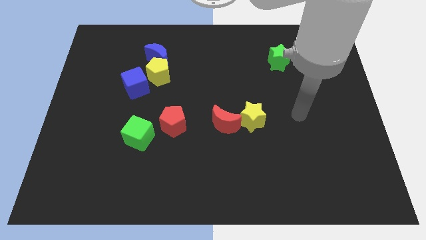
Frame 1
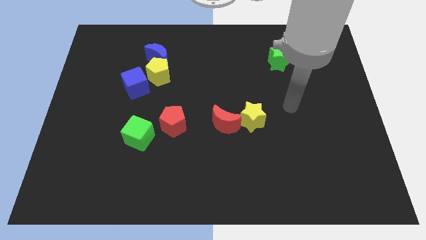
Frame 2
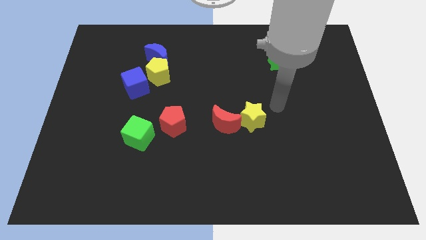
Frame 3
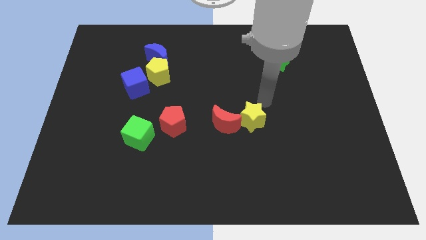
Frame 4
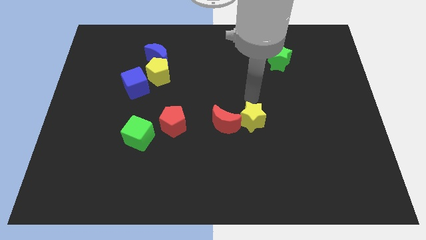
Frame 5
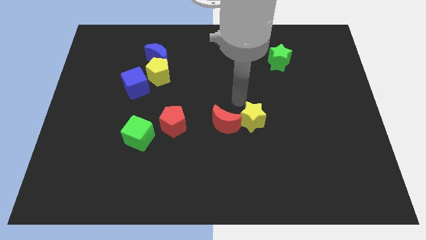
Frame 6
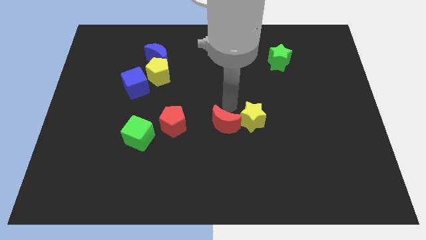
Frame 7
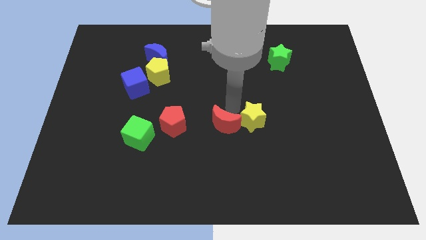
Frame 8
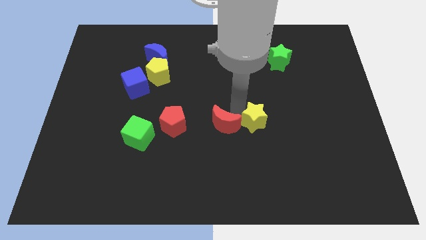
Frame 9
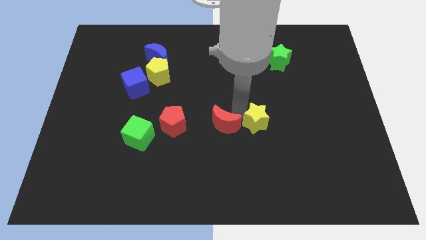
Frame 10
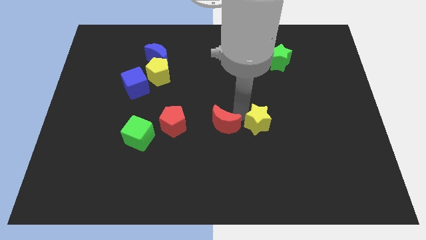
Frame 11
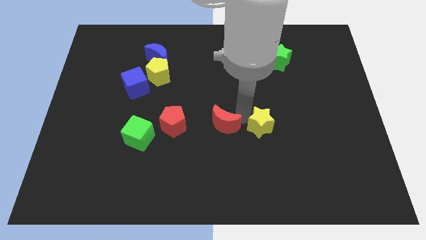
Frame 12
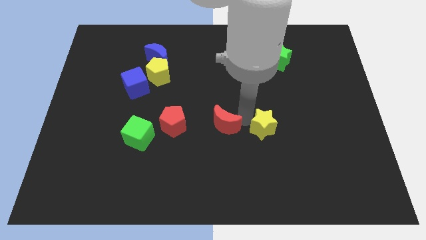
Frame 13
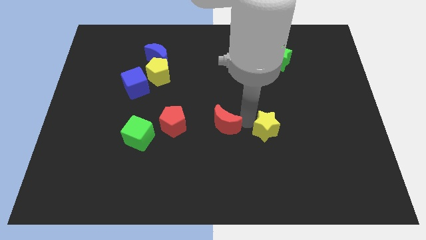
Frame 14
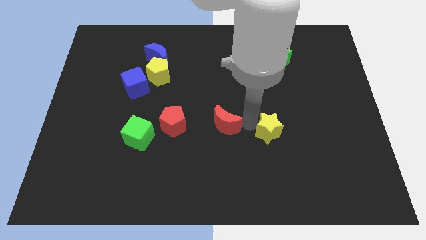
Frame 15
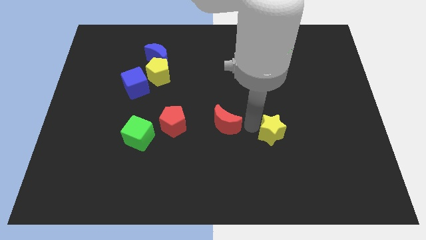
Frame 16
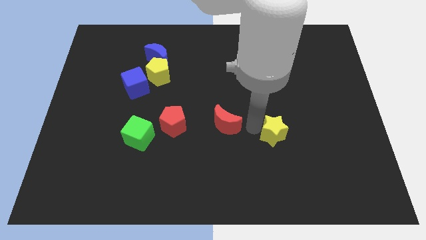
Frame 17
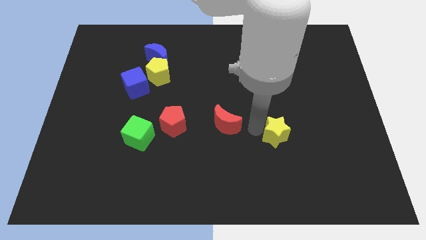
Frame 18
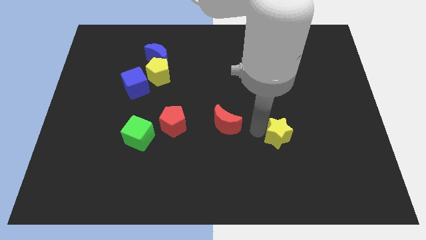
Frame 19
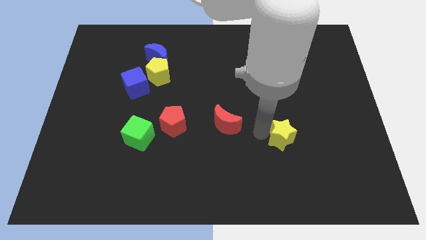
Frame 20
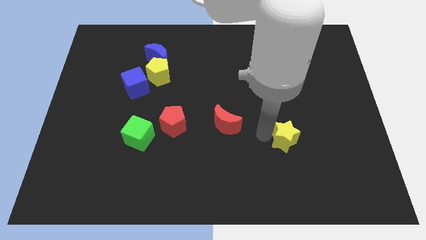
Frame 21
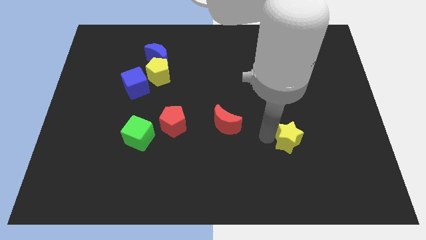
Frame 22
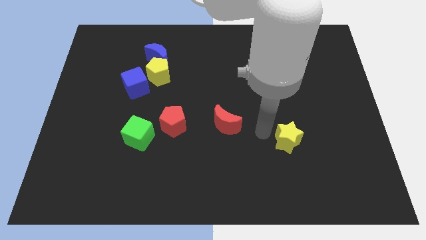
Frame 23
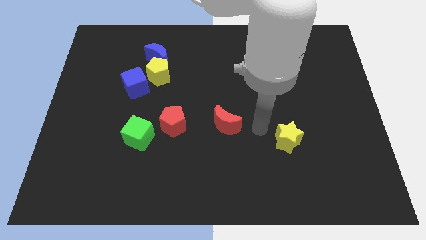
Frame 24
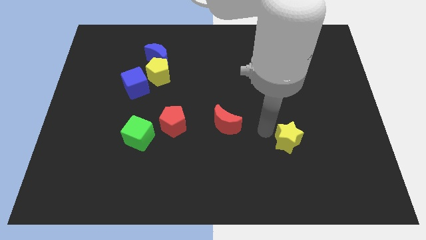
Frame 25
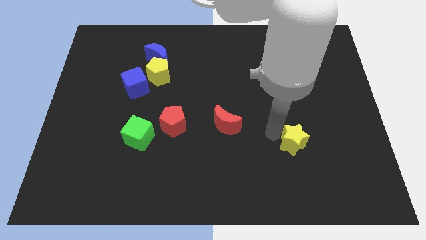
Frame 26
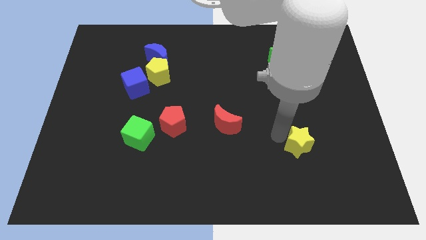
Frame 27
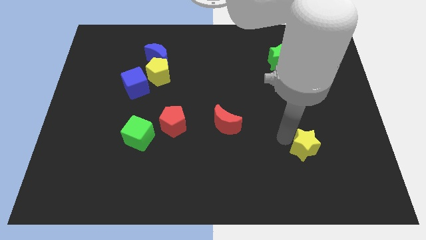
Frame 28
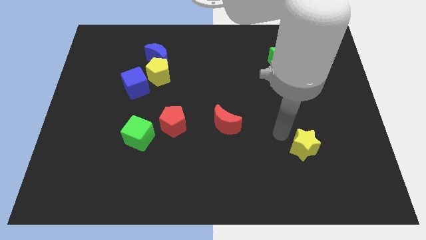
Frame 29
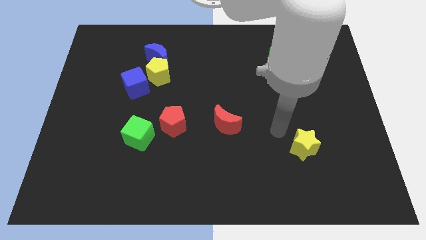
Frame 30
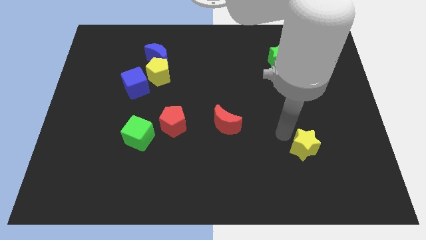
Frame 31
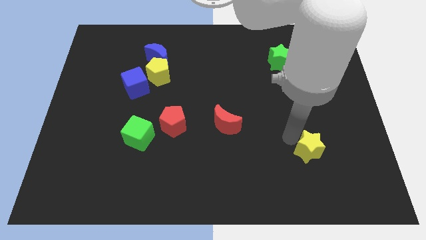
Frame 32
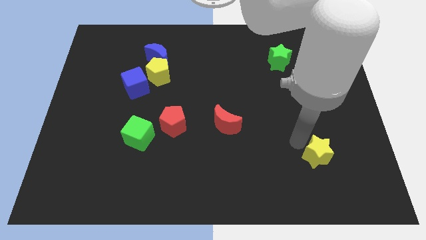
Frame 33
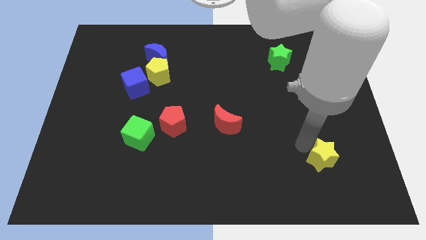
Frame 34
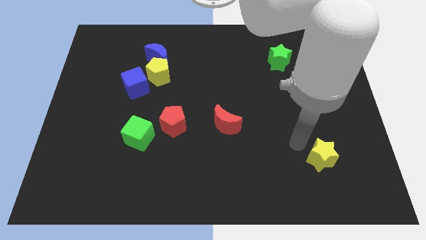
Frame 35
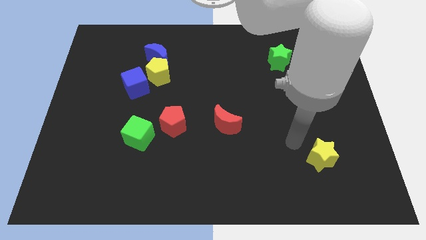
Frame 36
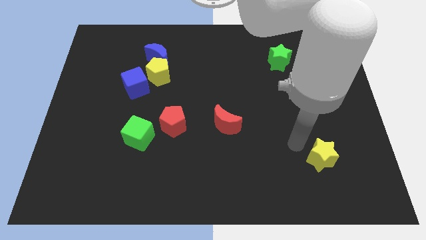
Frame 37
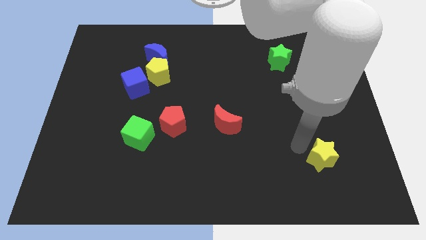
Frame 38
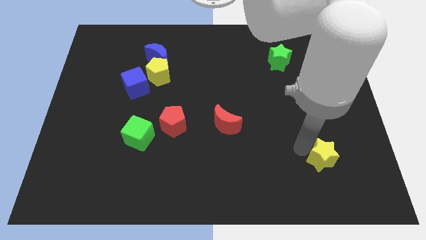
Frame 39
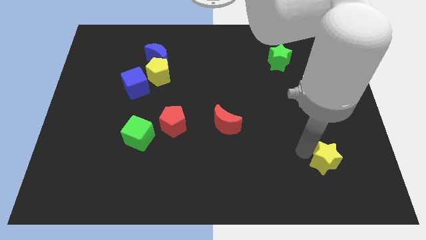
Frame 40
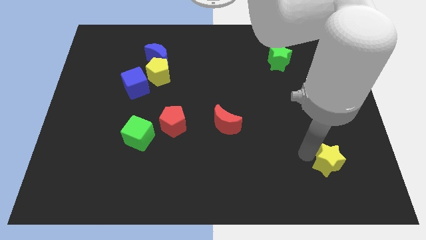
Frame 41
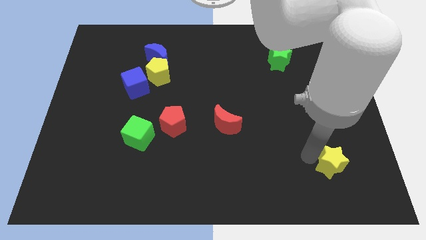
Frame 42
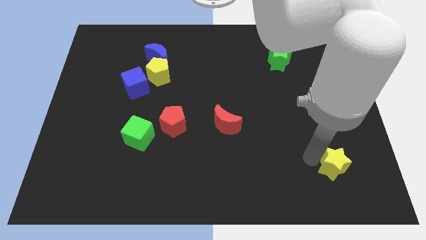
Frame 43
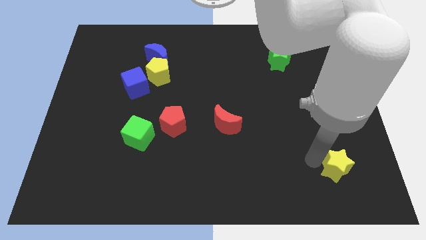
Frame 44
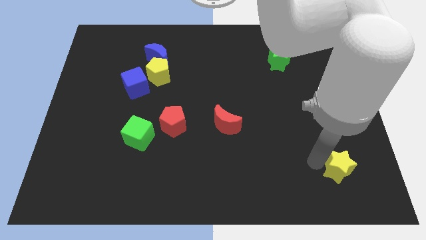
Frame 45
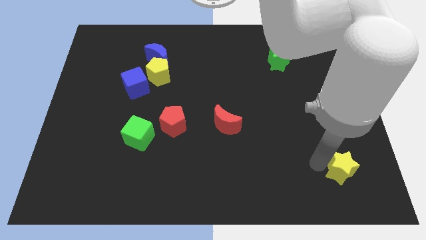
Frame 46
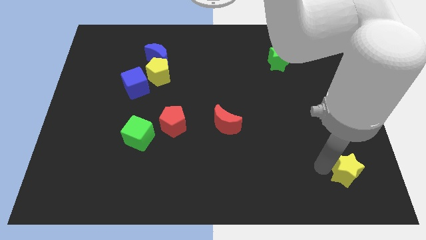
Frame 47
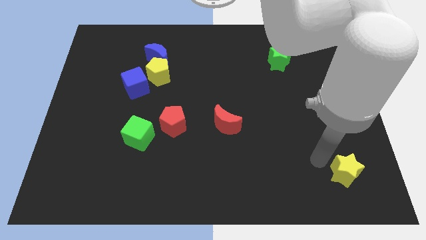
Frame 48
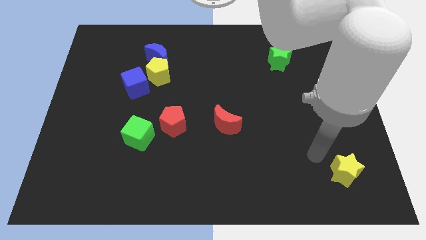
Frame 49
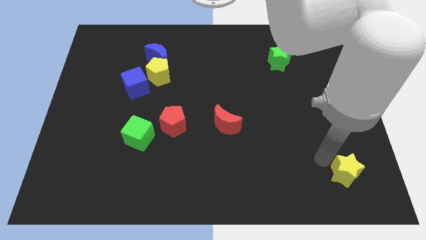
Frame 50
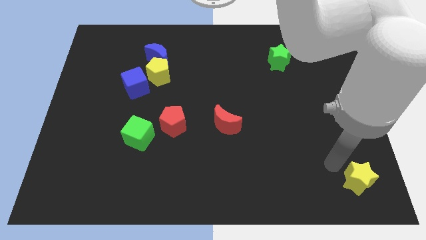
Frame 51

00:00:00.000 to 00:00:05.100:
push the yellow star to the bottom right

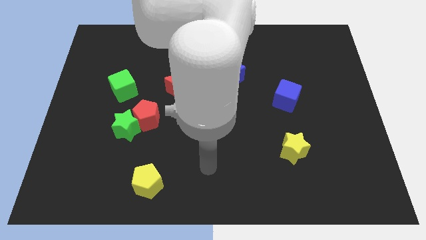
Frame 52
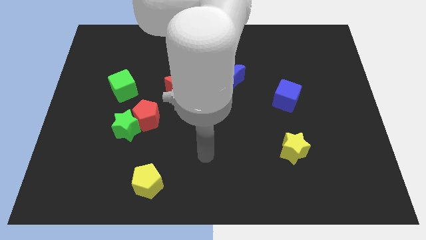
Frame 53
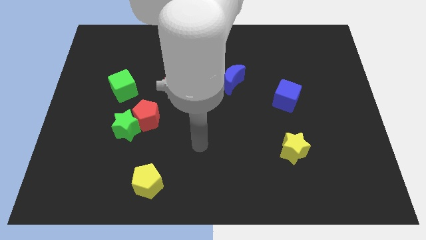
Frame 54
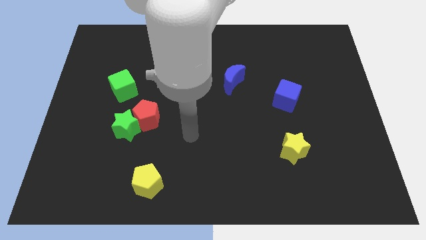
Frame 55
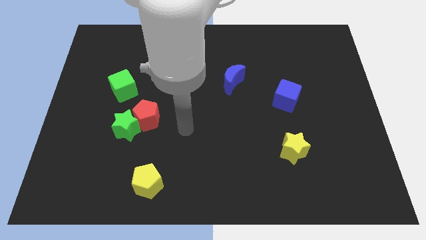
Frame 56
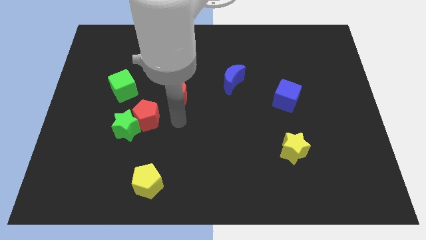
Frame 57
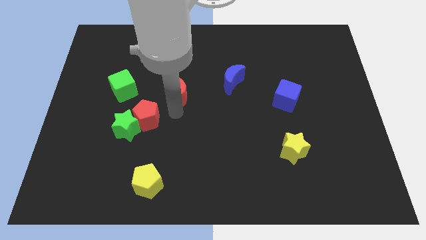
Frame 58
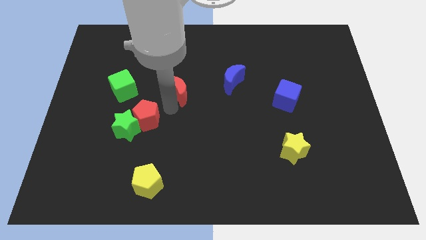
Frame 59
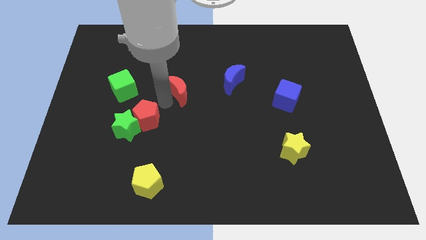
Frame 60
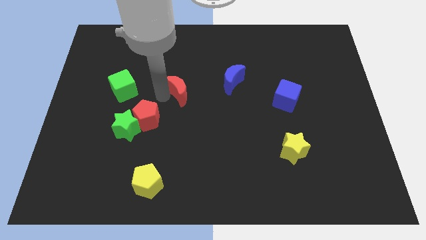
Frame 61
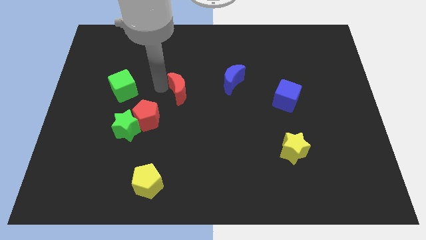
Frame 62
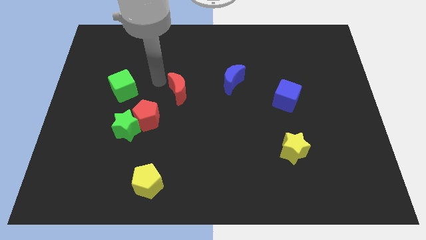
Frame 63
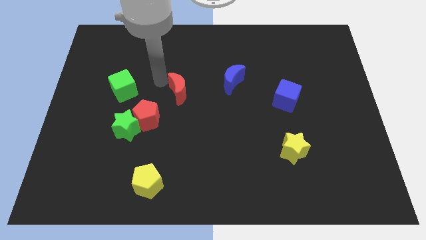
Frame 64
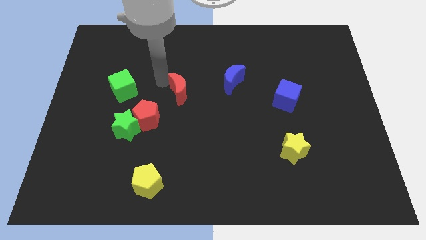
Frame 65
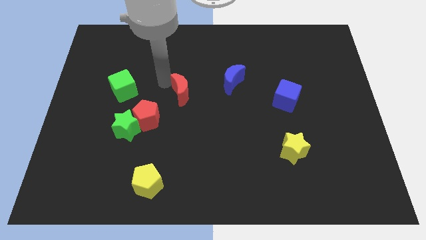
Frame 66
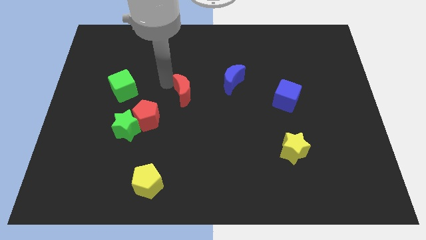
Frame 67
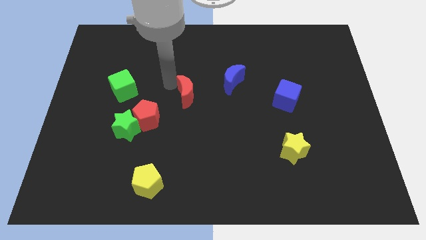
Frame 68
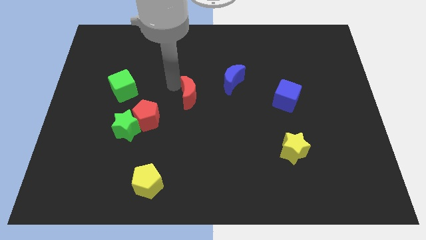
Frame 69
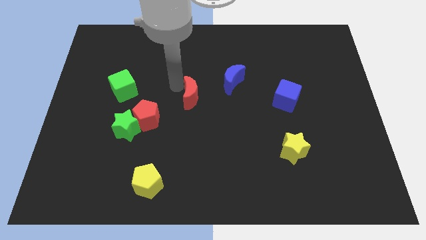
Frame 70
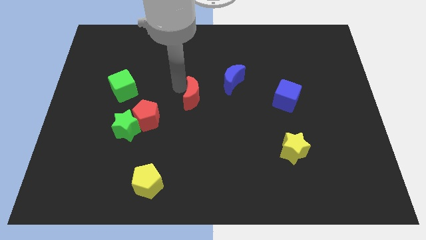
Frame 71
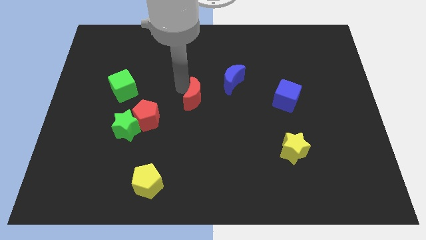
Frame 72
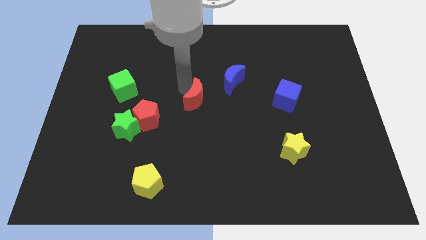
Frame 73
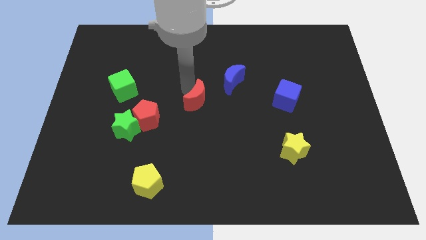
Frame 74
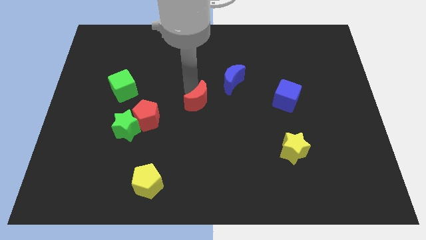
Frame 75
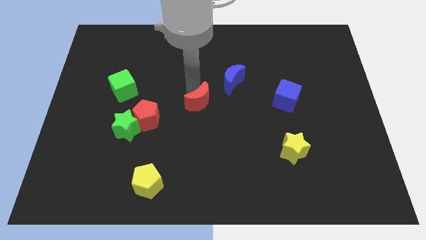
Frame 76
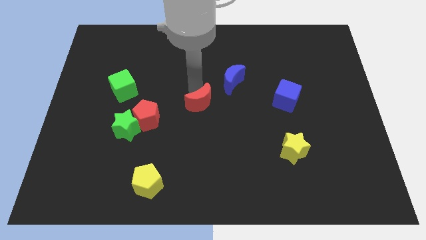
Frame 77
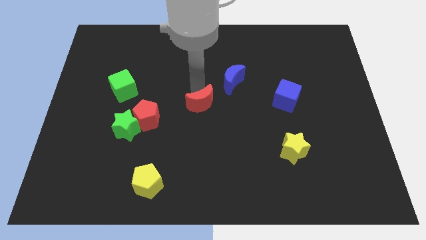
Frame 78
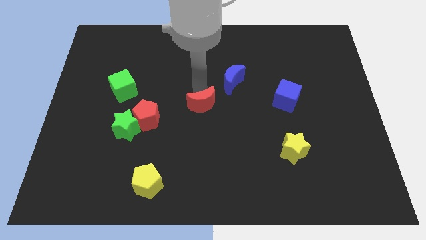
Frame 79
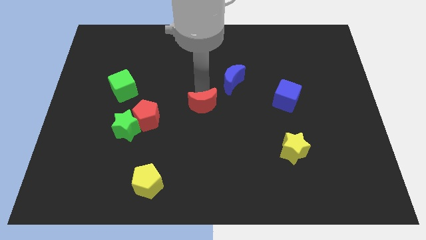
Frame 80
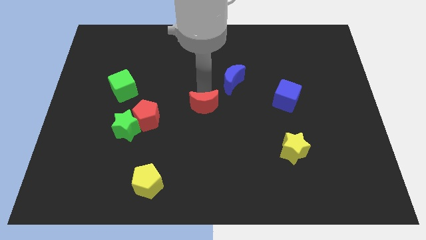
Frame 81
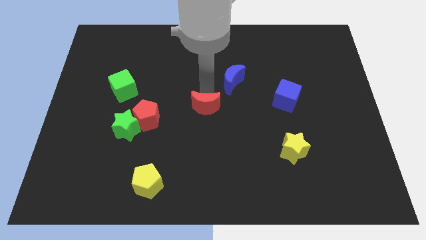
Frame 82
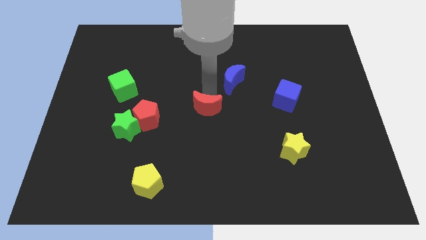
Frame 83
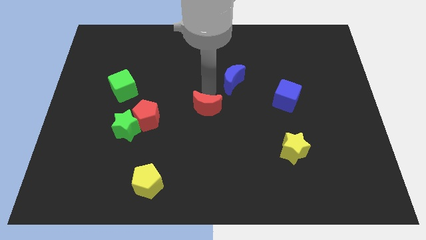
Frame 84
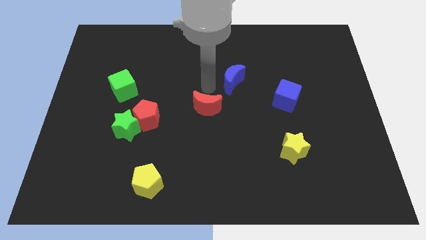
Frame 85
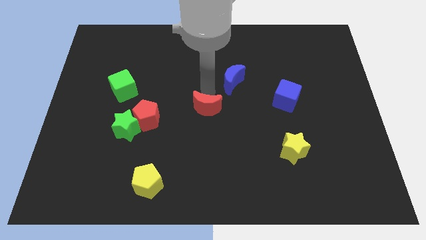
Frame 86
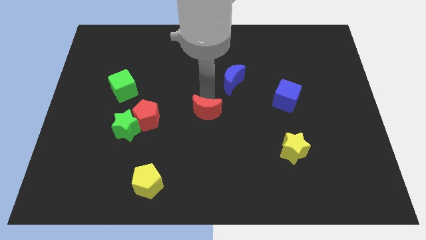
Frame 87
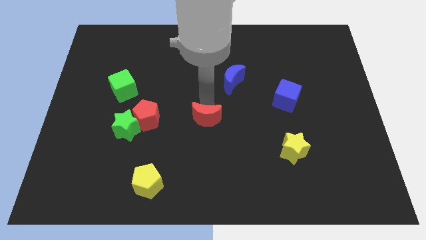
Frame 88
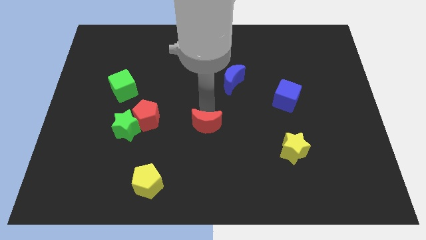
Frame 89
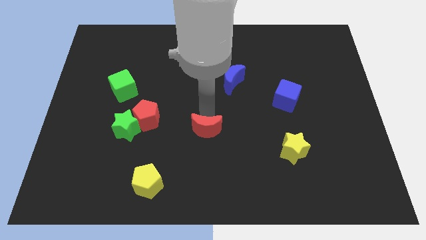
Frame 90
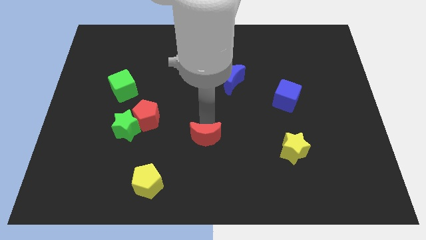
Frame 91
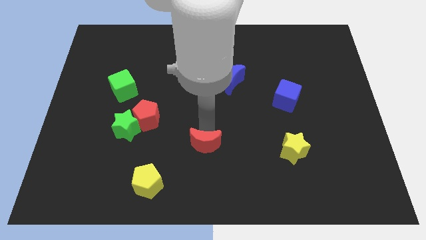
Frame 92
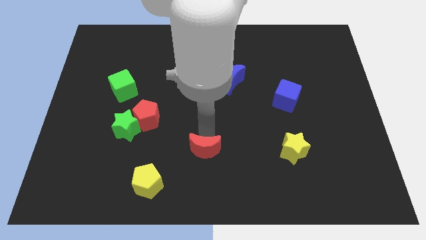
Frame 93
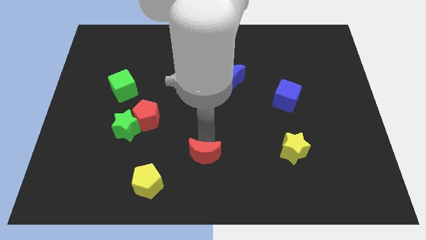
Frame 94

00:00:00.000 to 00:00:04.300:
push the red moon to the bottom side
